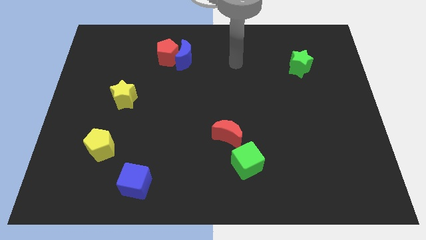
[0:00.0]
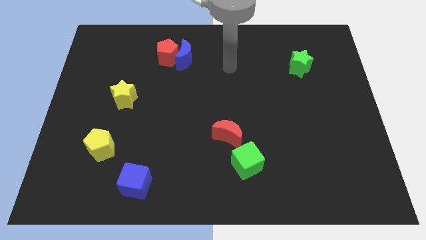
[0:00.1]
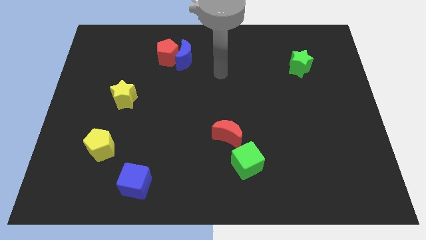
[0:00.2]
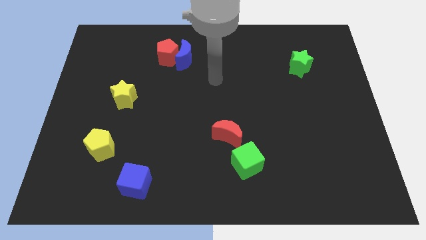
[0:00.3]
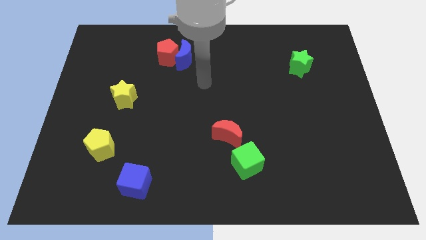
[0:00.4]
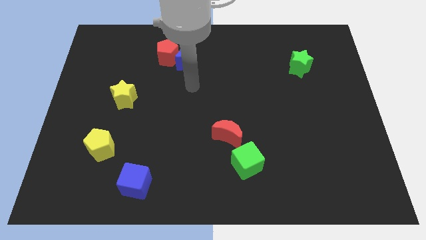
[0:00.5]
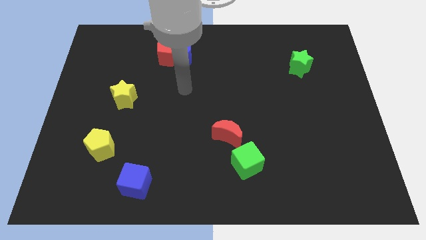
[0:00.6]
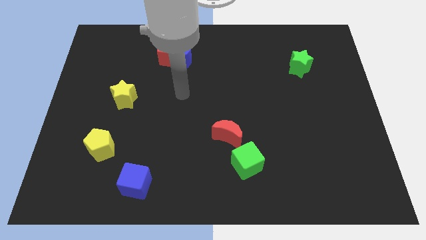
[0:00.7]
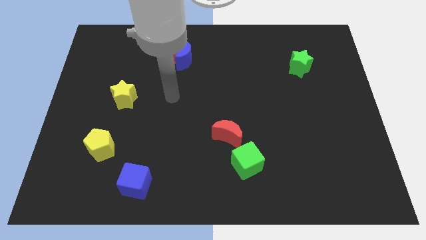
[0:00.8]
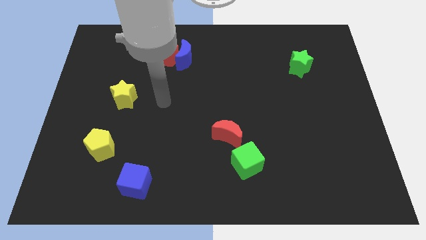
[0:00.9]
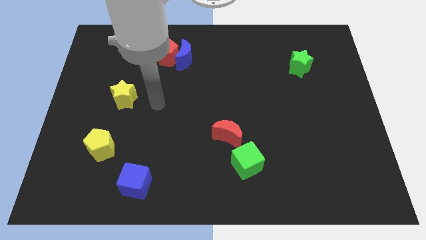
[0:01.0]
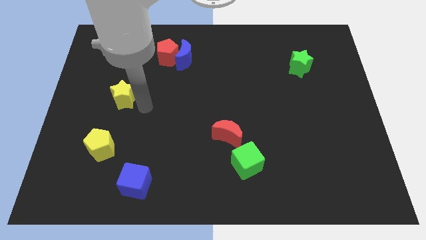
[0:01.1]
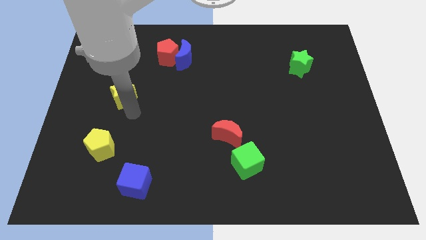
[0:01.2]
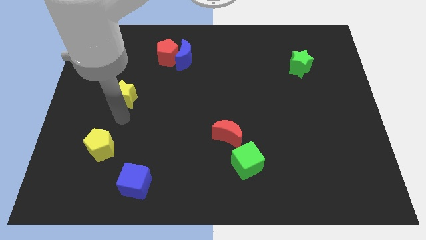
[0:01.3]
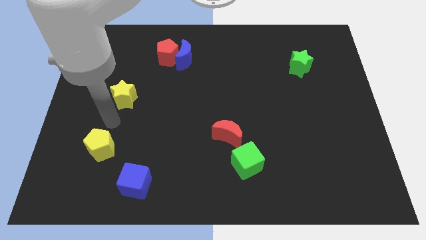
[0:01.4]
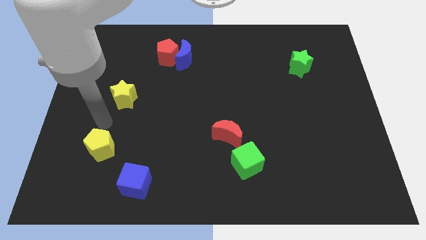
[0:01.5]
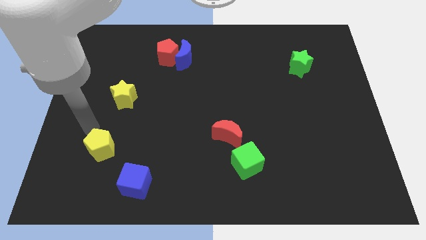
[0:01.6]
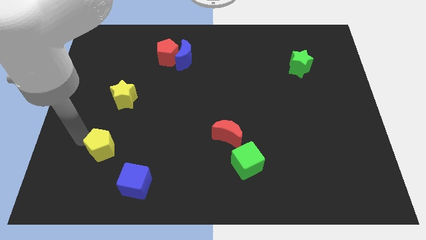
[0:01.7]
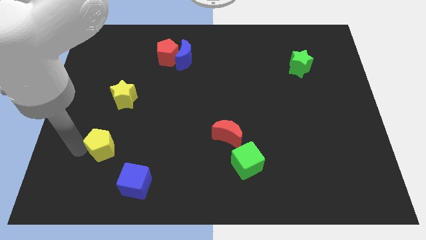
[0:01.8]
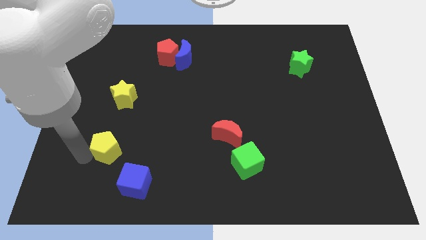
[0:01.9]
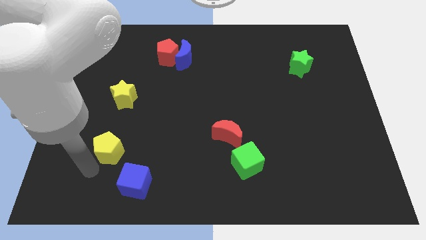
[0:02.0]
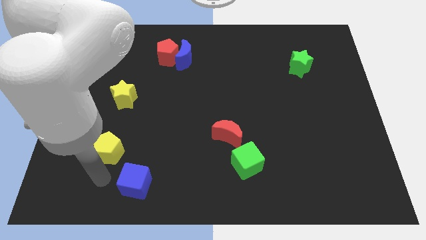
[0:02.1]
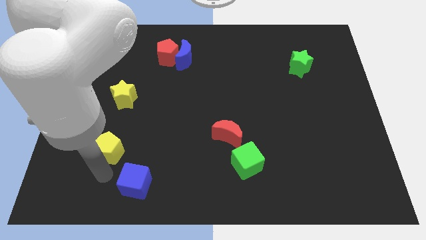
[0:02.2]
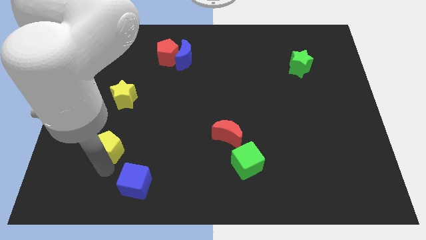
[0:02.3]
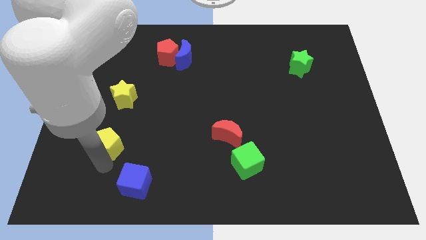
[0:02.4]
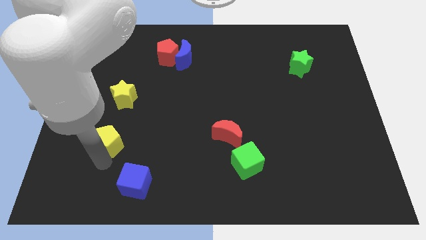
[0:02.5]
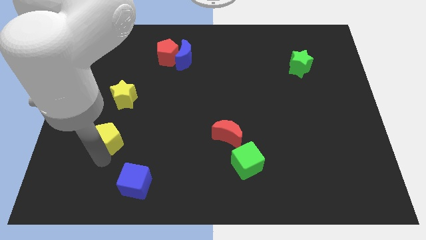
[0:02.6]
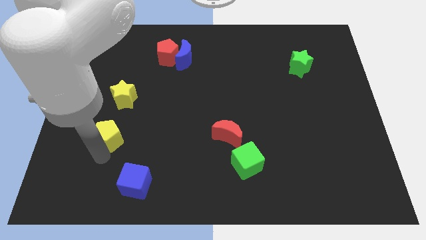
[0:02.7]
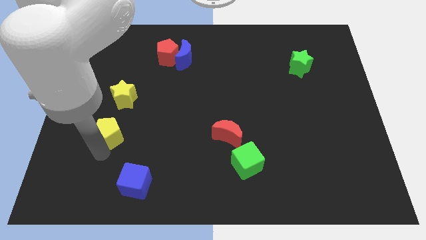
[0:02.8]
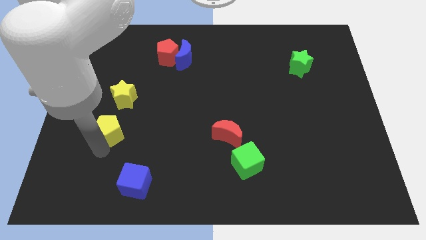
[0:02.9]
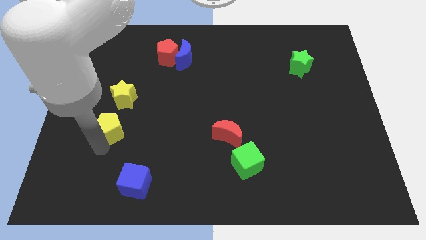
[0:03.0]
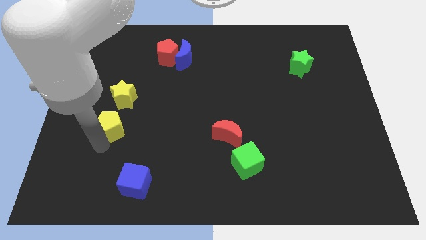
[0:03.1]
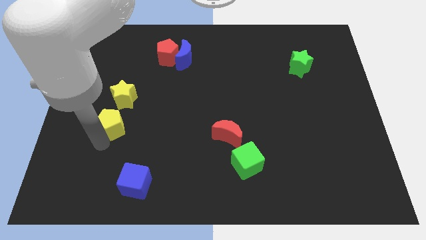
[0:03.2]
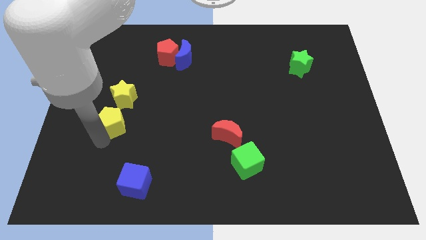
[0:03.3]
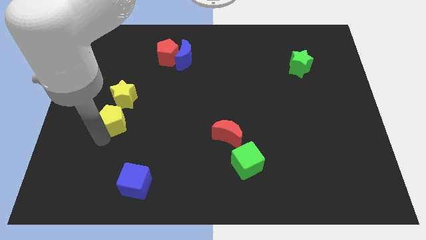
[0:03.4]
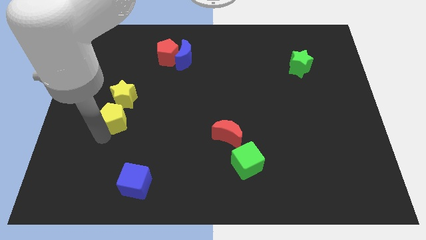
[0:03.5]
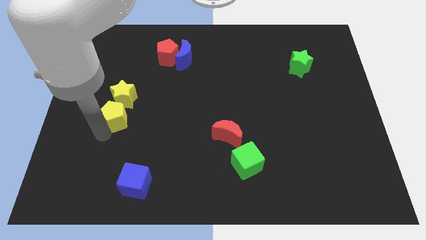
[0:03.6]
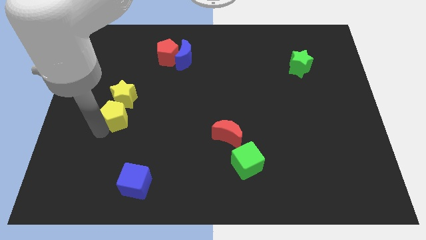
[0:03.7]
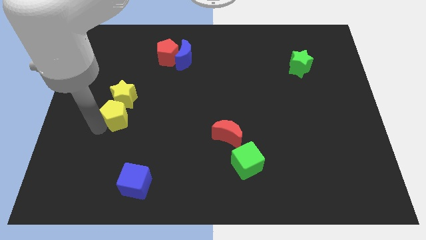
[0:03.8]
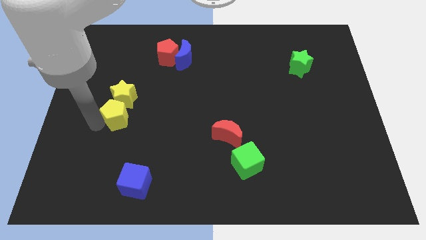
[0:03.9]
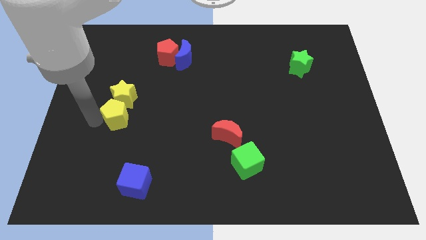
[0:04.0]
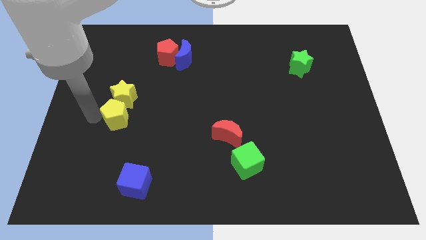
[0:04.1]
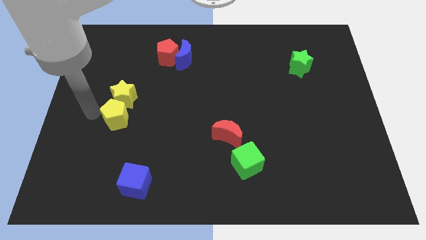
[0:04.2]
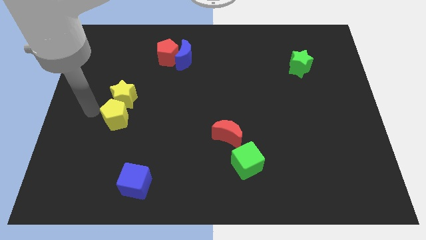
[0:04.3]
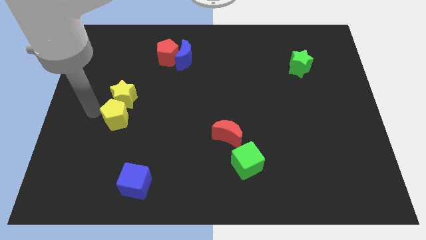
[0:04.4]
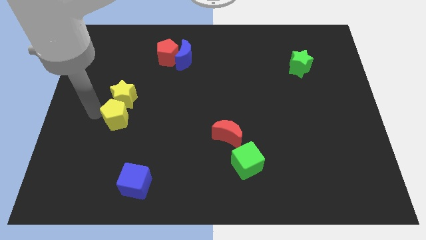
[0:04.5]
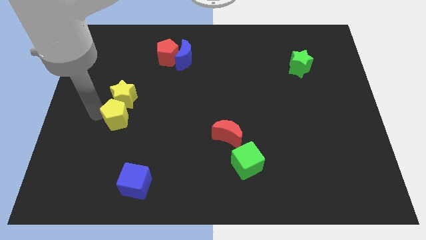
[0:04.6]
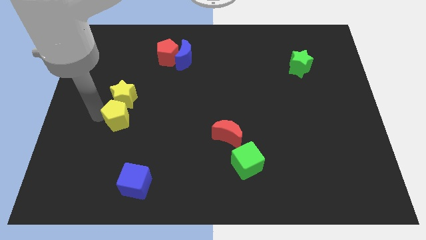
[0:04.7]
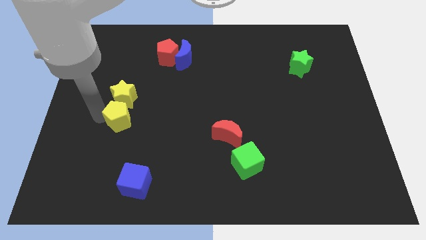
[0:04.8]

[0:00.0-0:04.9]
slide the yellow pentagon slightly upwards and right diagonally

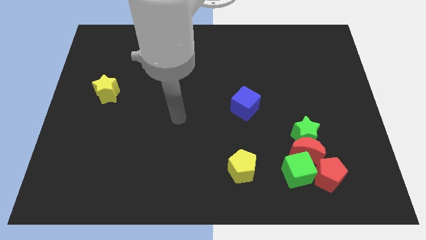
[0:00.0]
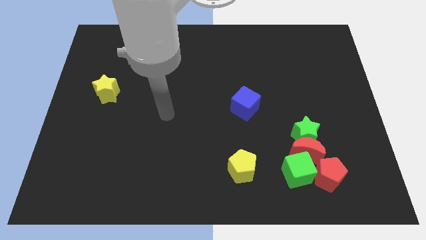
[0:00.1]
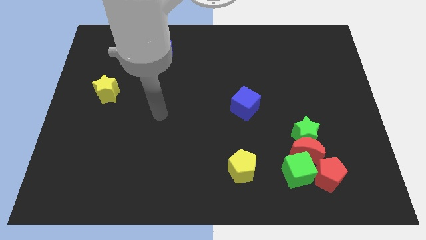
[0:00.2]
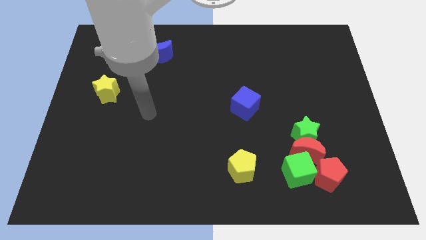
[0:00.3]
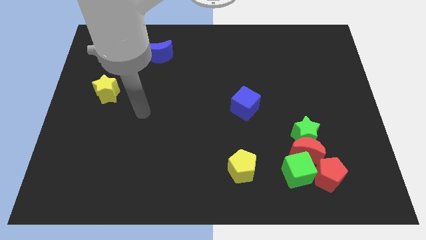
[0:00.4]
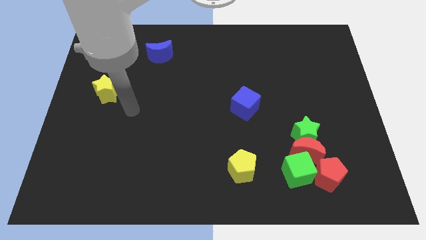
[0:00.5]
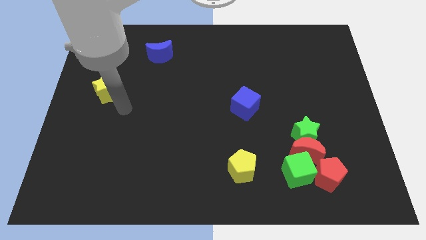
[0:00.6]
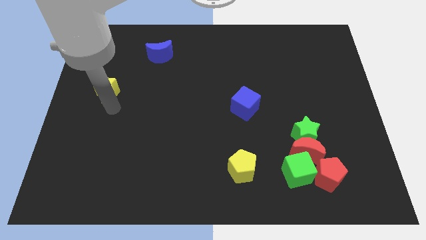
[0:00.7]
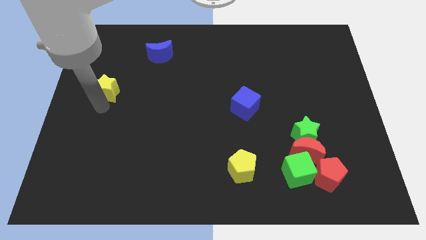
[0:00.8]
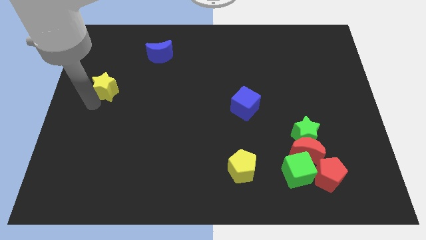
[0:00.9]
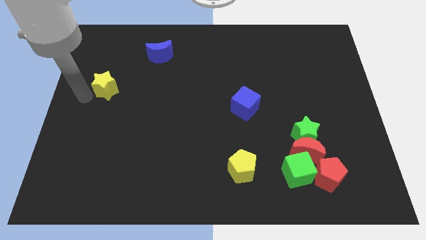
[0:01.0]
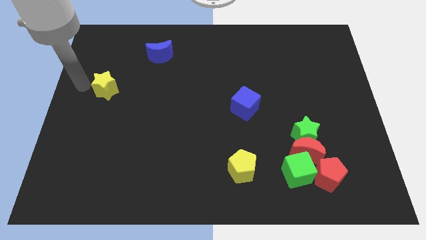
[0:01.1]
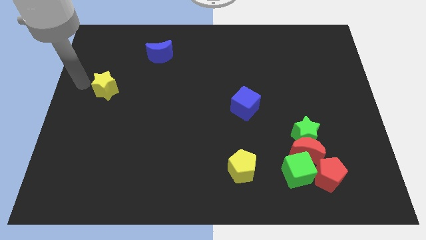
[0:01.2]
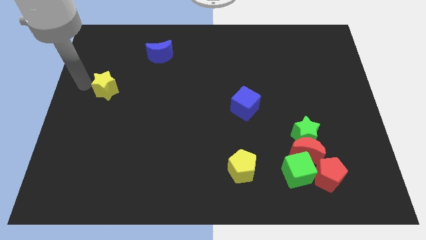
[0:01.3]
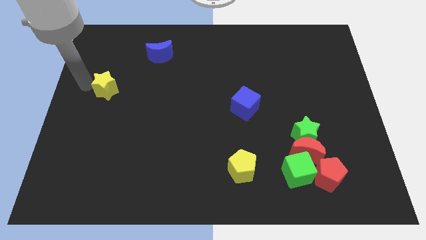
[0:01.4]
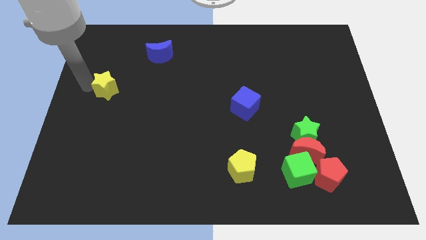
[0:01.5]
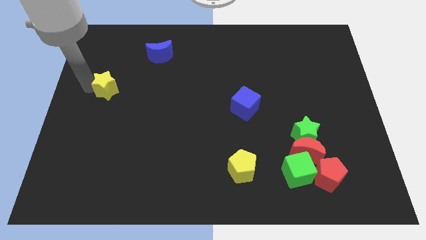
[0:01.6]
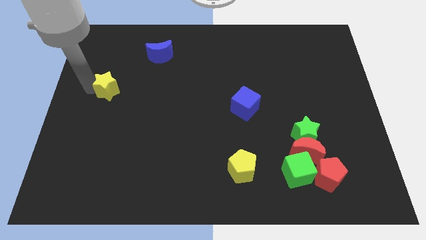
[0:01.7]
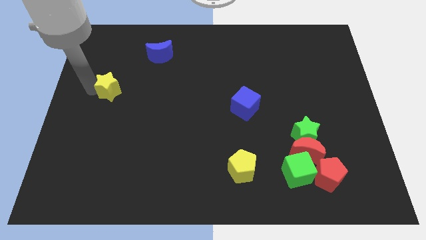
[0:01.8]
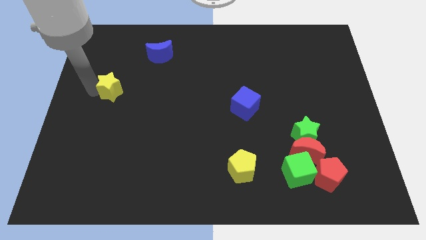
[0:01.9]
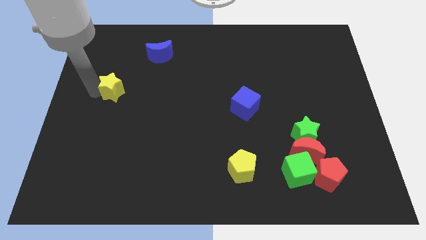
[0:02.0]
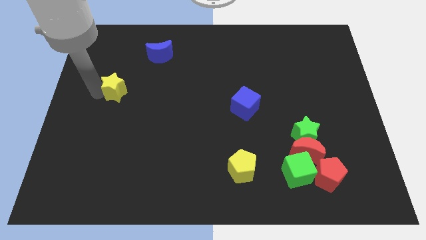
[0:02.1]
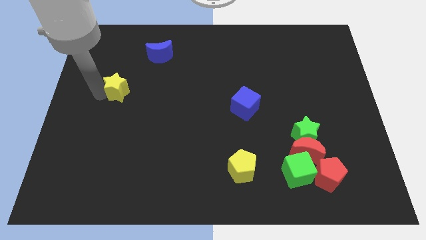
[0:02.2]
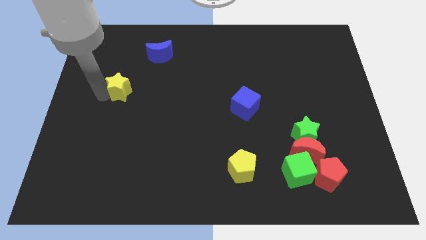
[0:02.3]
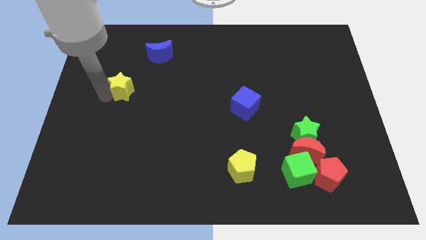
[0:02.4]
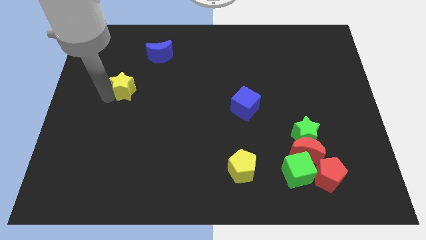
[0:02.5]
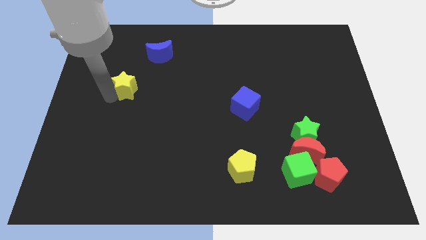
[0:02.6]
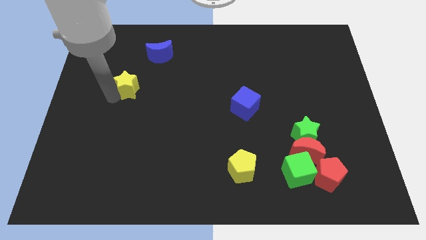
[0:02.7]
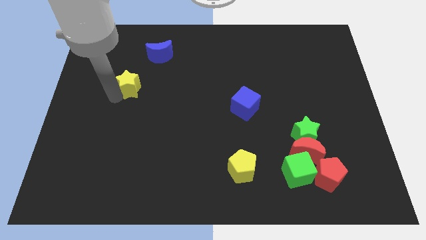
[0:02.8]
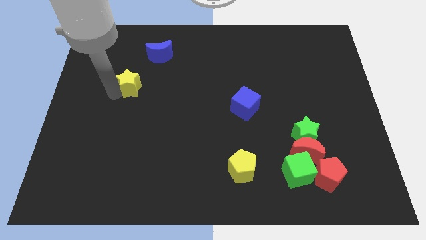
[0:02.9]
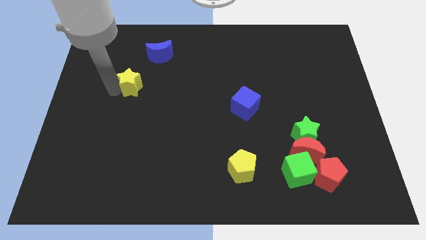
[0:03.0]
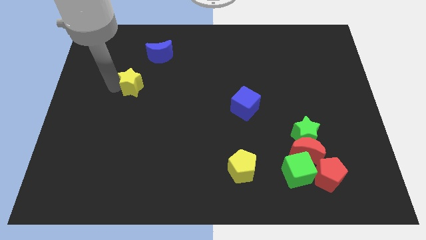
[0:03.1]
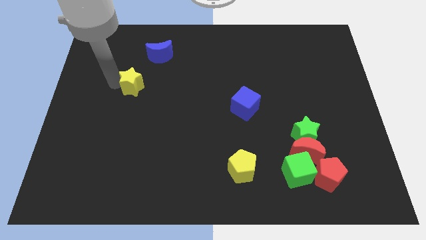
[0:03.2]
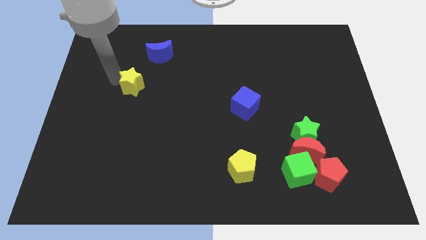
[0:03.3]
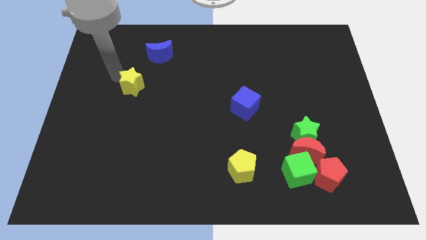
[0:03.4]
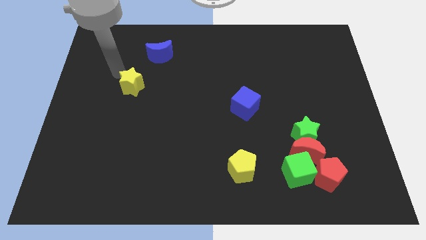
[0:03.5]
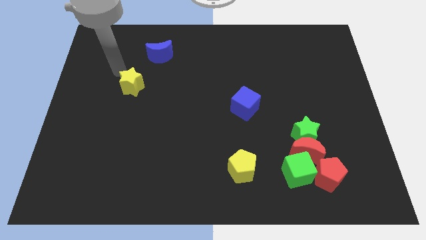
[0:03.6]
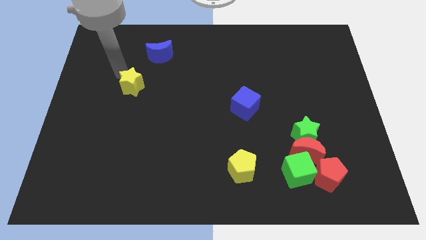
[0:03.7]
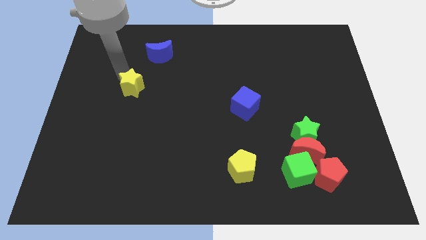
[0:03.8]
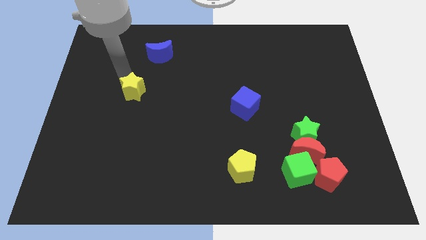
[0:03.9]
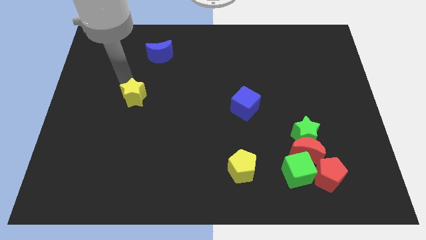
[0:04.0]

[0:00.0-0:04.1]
slightly push the yellow star to the right
